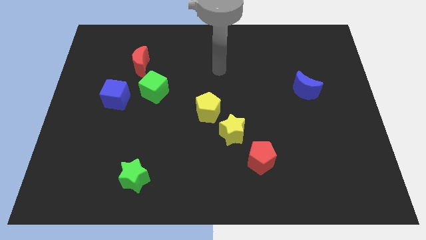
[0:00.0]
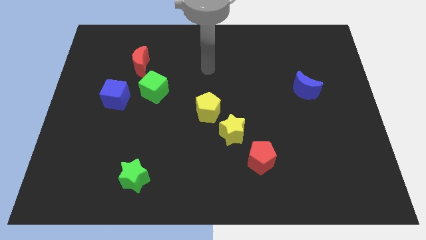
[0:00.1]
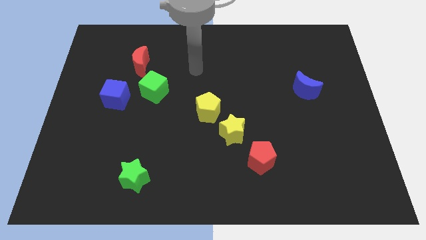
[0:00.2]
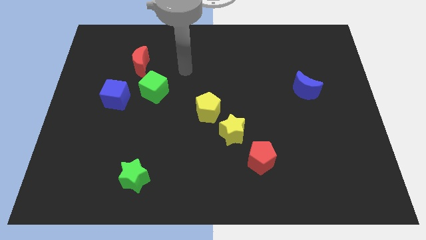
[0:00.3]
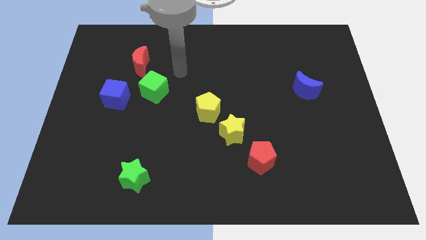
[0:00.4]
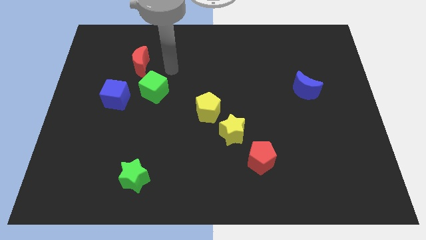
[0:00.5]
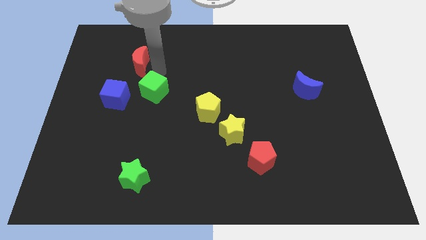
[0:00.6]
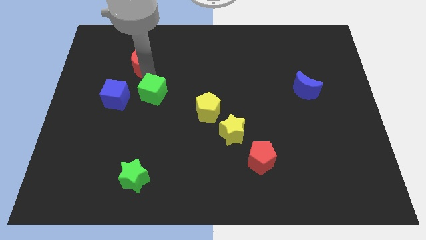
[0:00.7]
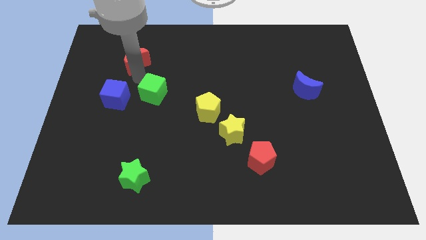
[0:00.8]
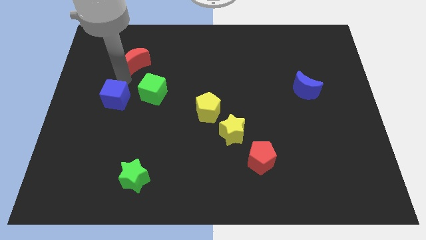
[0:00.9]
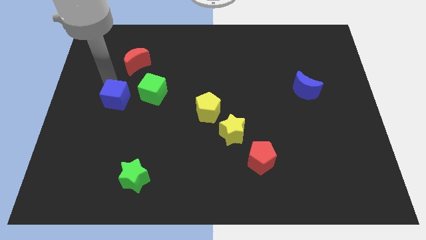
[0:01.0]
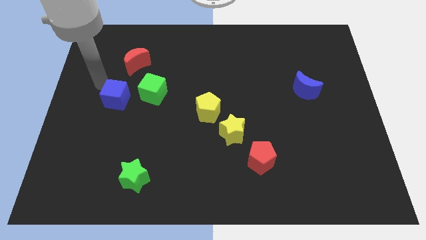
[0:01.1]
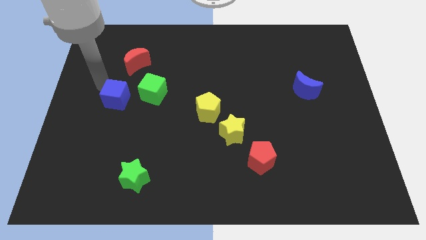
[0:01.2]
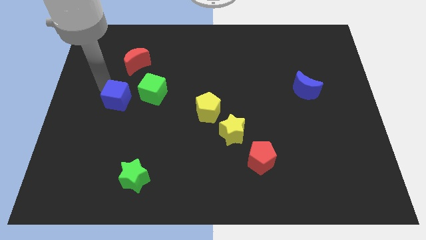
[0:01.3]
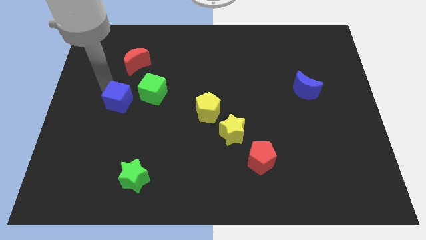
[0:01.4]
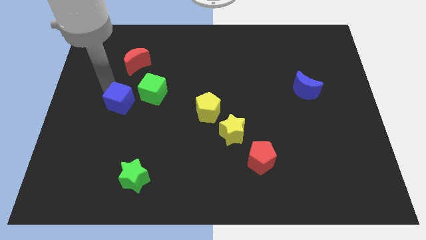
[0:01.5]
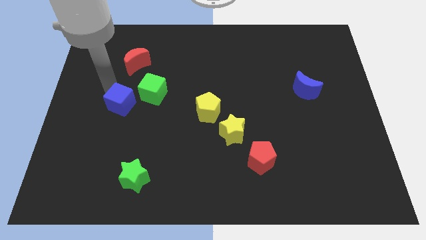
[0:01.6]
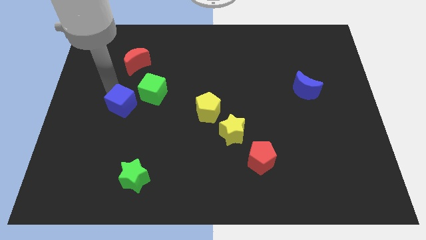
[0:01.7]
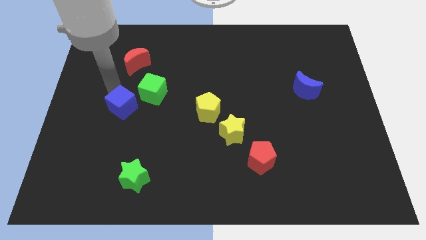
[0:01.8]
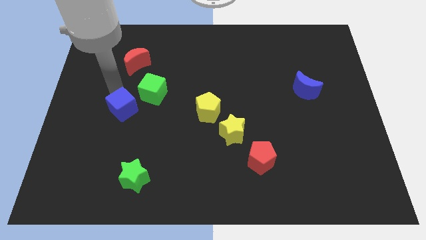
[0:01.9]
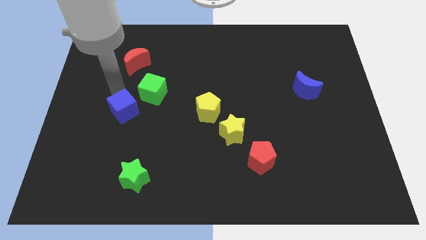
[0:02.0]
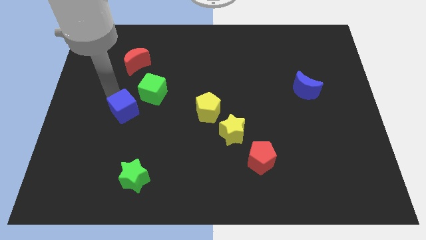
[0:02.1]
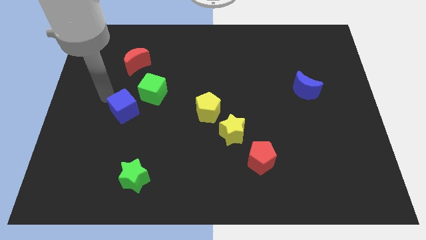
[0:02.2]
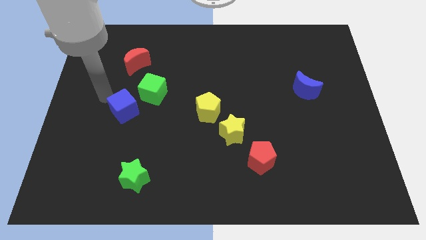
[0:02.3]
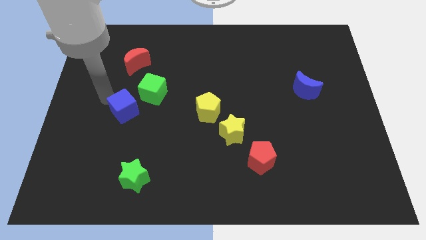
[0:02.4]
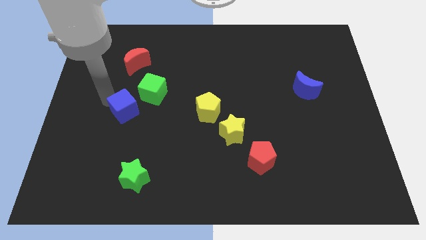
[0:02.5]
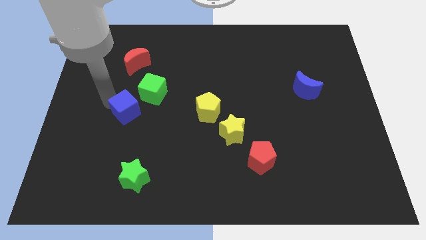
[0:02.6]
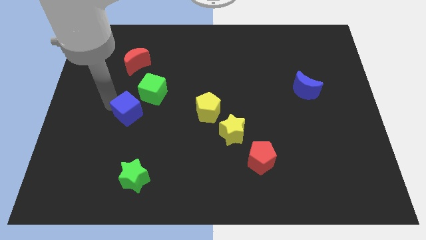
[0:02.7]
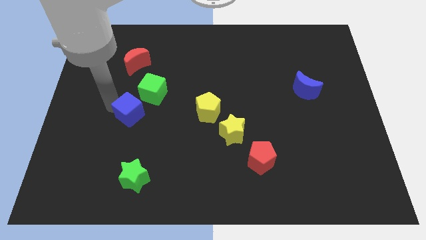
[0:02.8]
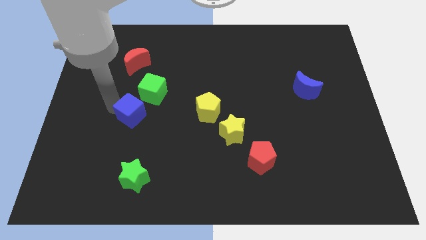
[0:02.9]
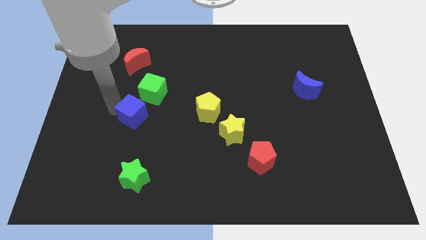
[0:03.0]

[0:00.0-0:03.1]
slightly move the blue cube downwards and to the right diagonally

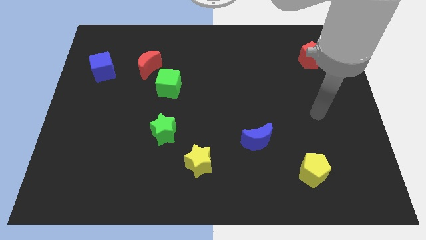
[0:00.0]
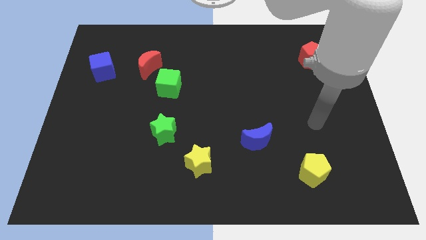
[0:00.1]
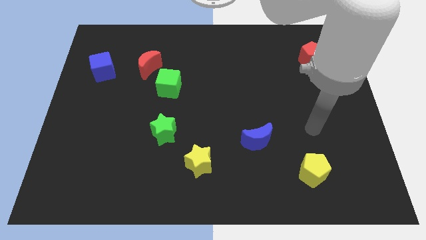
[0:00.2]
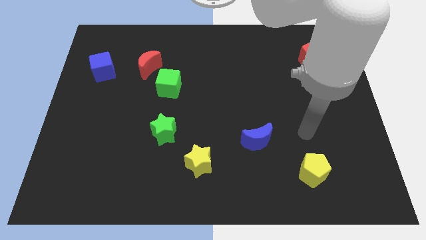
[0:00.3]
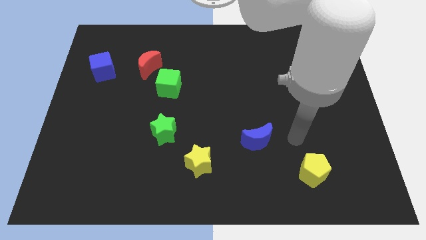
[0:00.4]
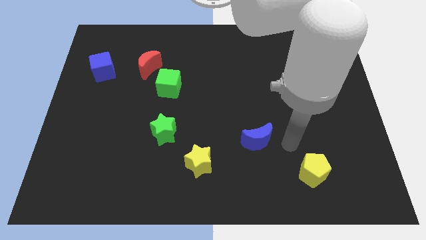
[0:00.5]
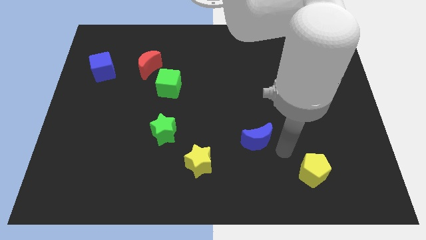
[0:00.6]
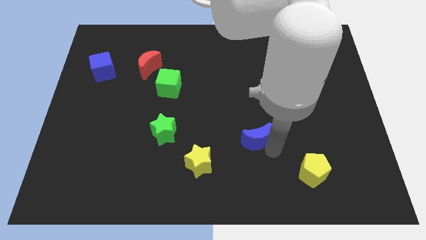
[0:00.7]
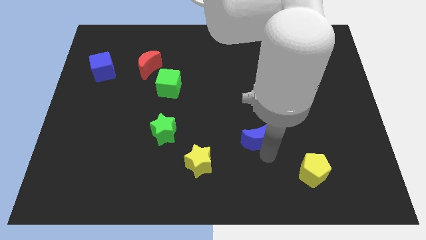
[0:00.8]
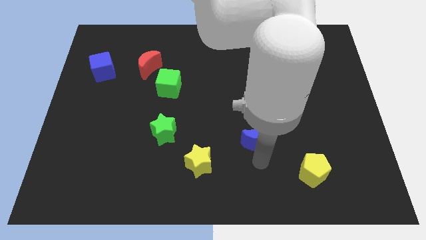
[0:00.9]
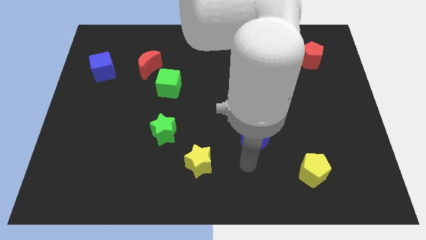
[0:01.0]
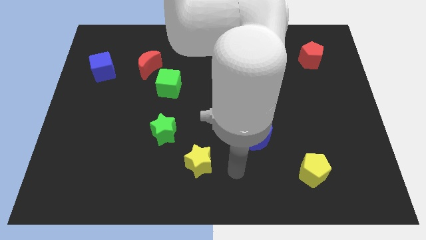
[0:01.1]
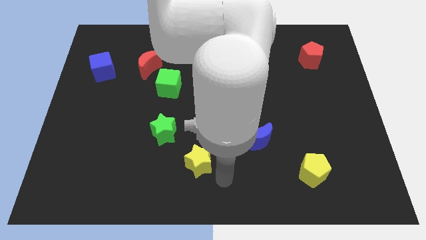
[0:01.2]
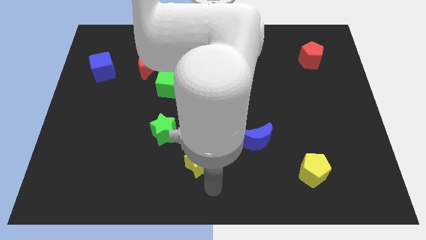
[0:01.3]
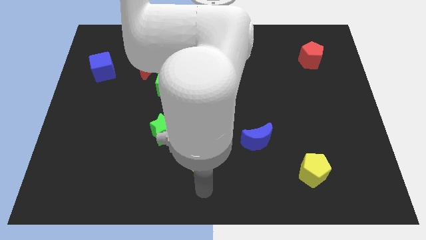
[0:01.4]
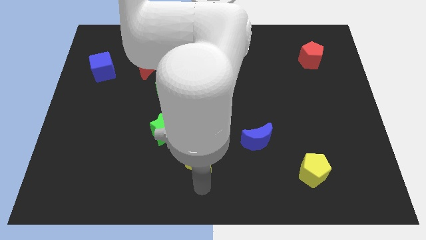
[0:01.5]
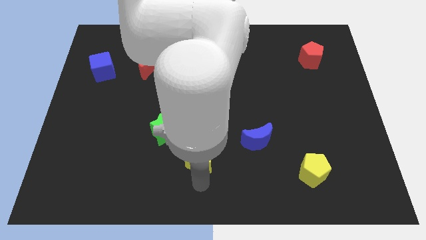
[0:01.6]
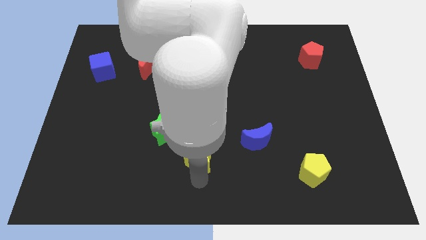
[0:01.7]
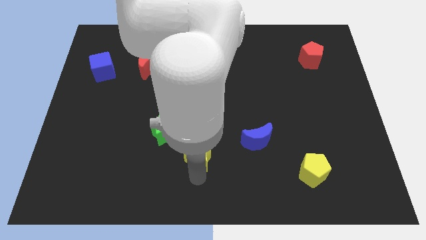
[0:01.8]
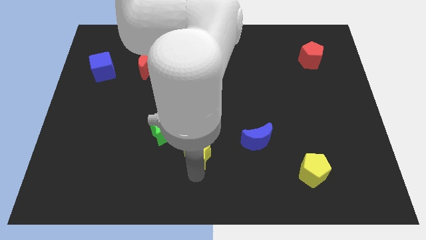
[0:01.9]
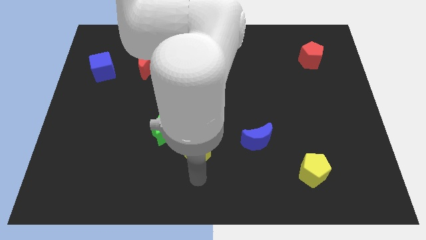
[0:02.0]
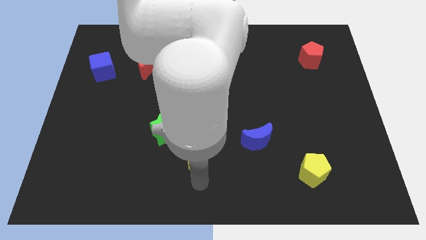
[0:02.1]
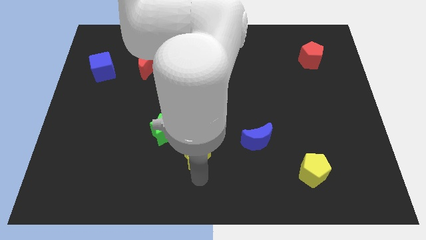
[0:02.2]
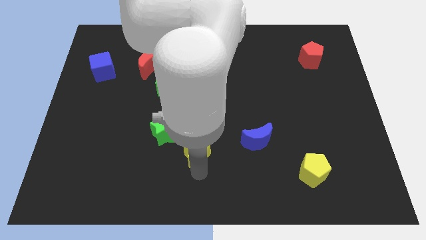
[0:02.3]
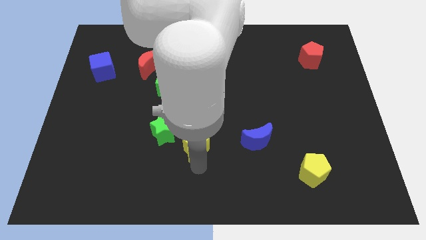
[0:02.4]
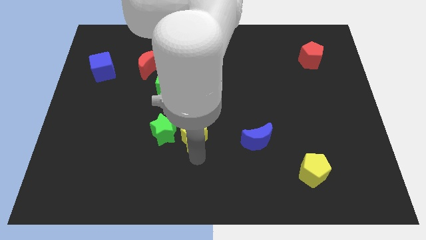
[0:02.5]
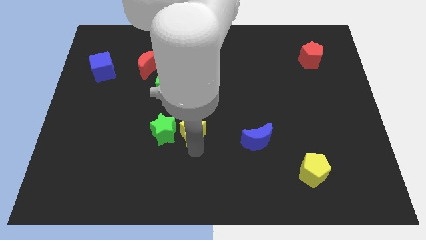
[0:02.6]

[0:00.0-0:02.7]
slightly push the yellow star up

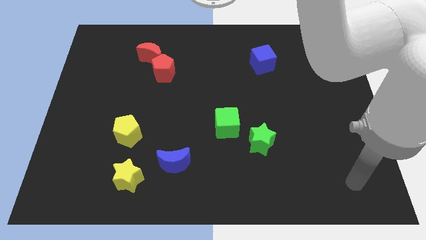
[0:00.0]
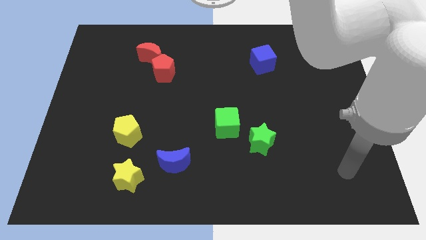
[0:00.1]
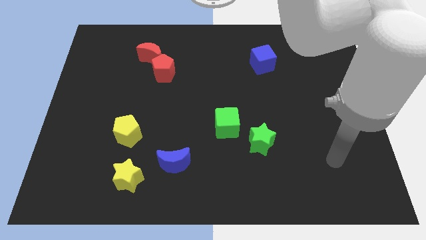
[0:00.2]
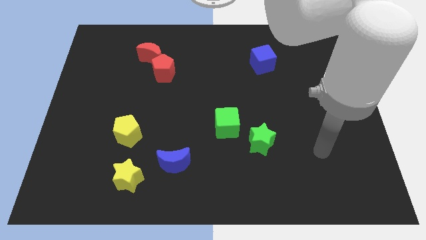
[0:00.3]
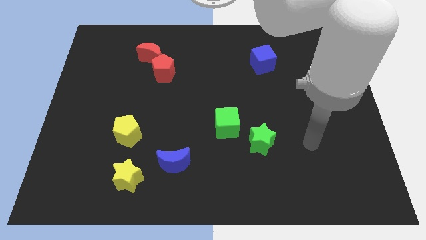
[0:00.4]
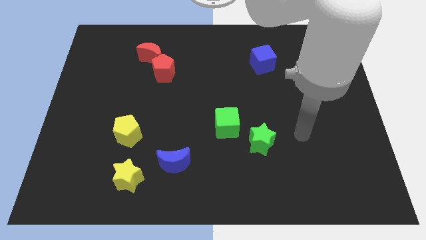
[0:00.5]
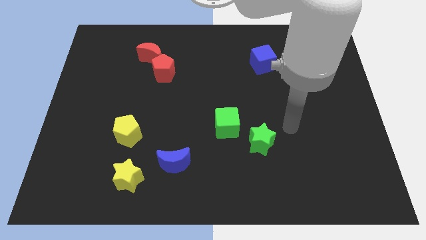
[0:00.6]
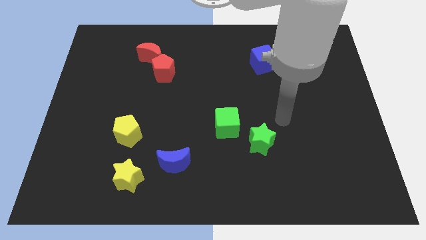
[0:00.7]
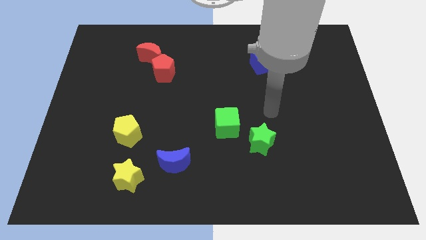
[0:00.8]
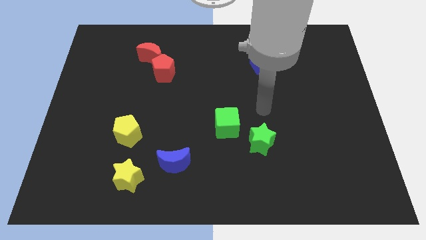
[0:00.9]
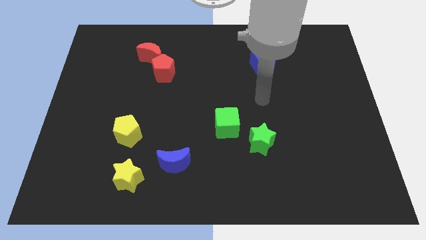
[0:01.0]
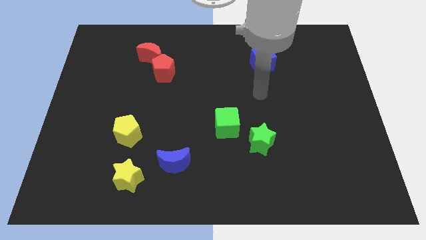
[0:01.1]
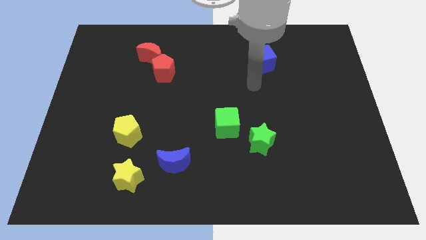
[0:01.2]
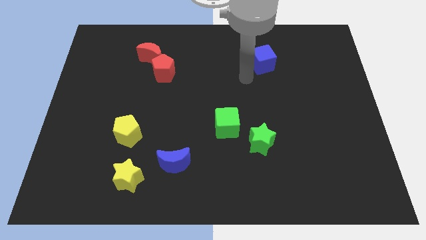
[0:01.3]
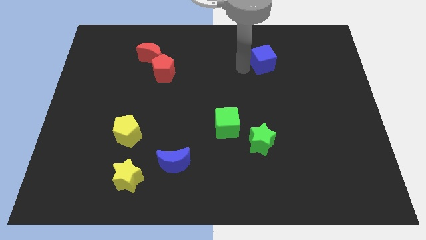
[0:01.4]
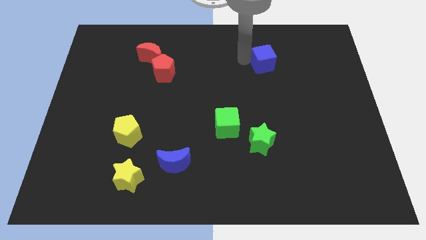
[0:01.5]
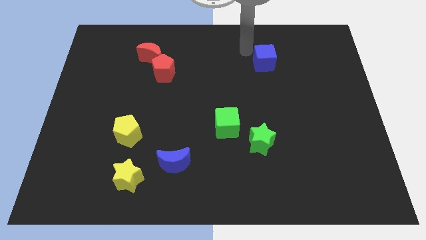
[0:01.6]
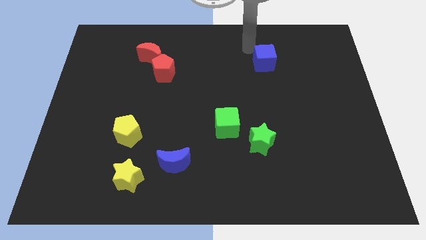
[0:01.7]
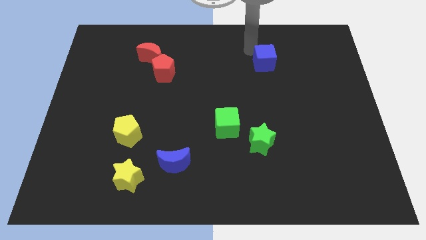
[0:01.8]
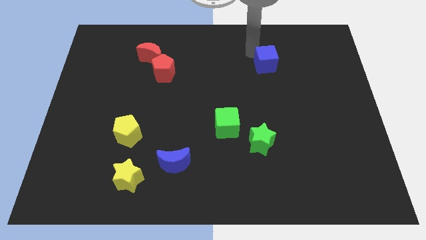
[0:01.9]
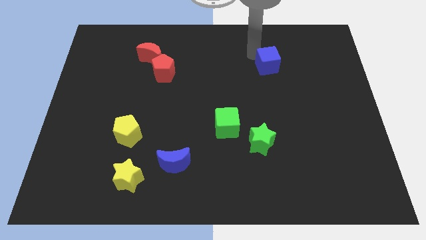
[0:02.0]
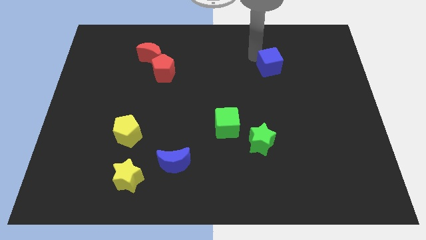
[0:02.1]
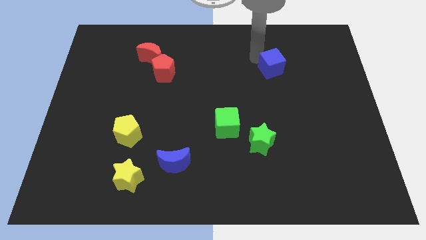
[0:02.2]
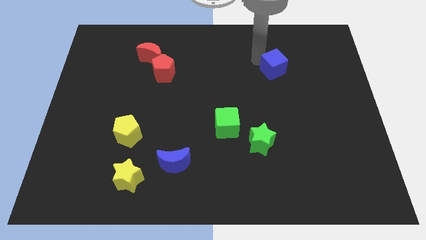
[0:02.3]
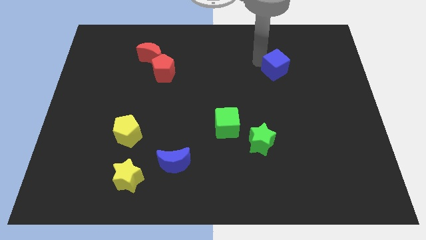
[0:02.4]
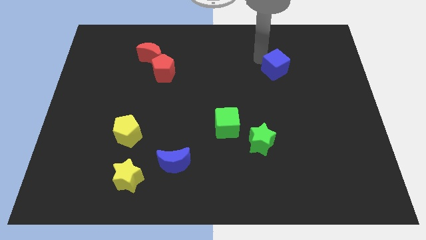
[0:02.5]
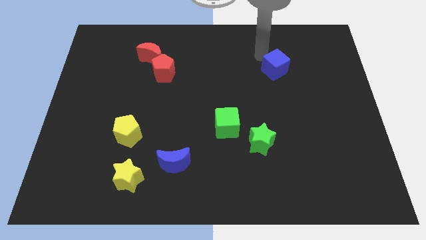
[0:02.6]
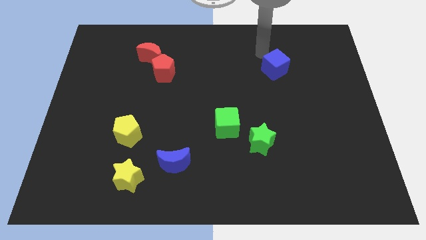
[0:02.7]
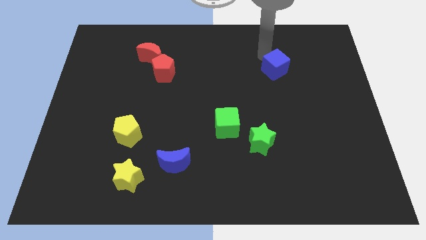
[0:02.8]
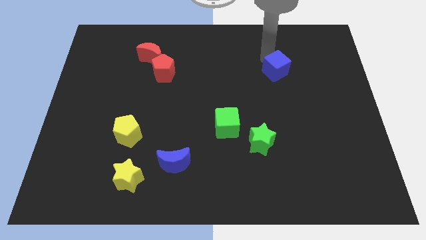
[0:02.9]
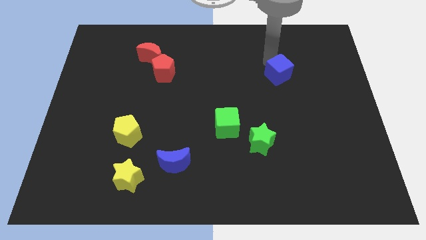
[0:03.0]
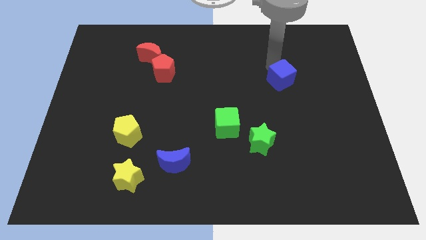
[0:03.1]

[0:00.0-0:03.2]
move the blue cube downwards and right a little bit
